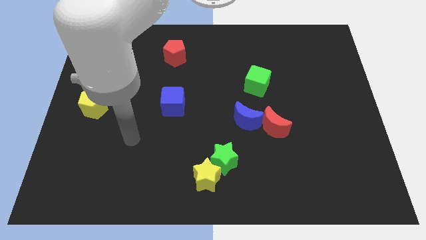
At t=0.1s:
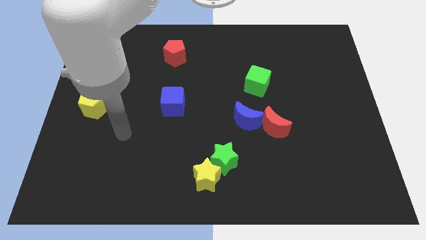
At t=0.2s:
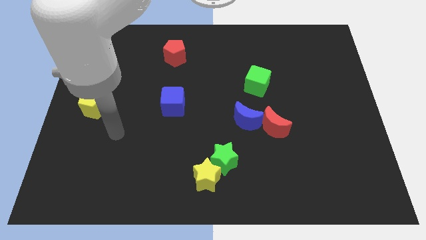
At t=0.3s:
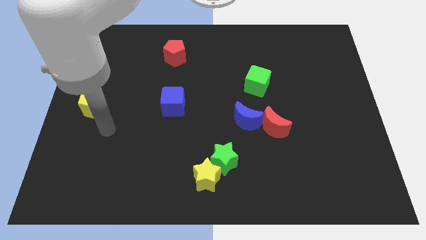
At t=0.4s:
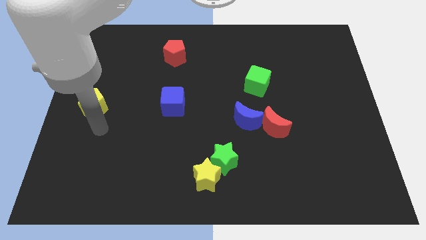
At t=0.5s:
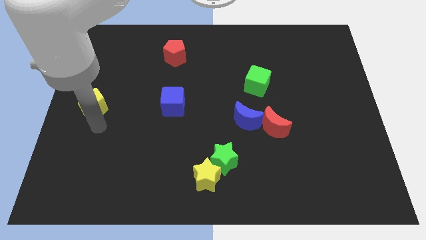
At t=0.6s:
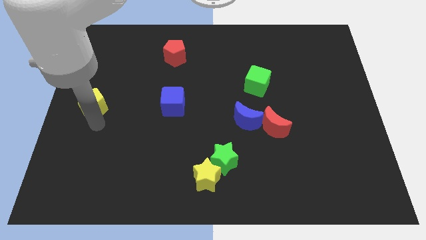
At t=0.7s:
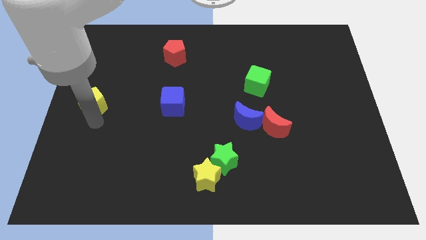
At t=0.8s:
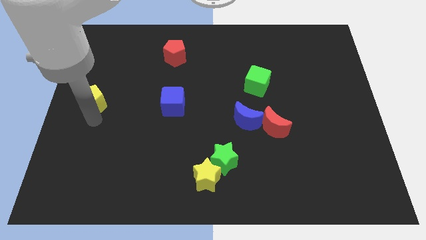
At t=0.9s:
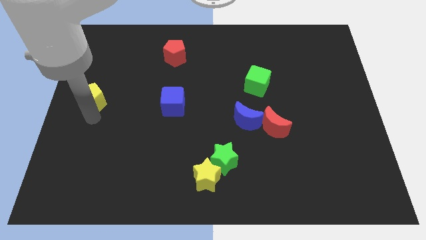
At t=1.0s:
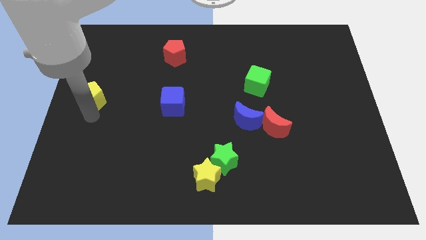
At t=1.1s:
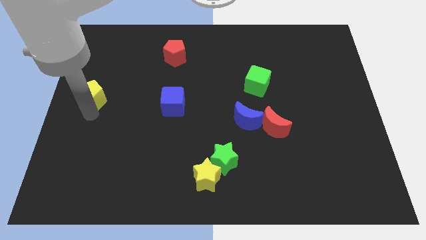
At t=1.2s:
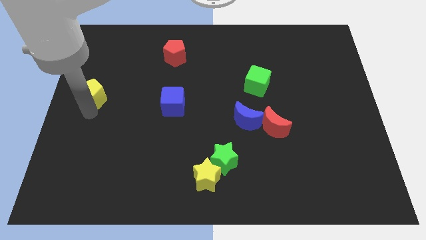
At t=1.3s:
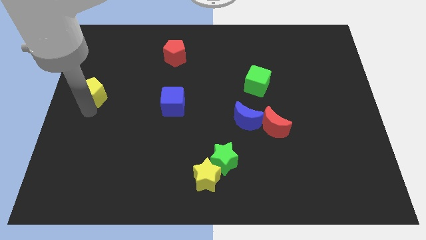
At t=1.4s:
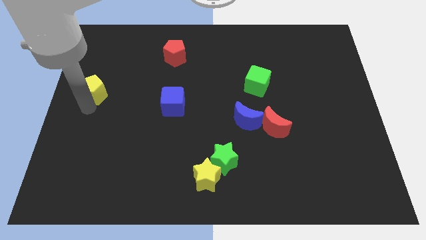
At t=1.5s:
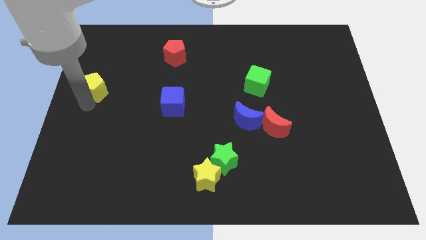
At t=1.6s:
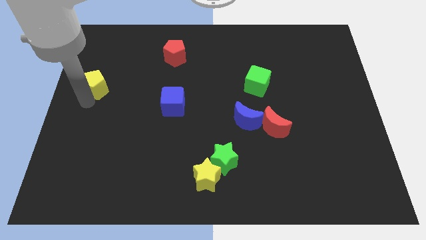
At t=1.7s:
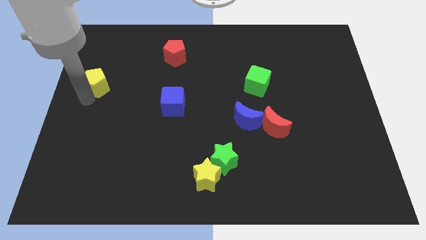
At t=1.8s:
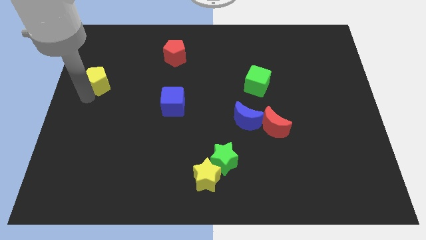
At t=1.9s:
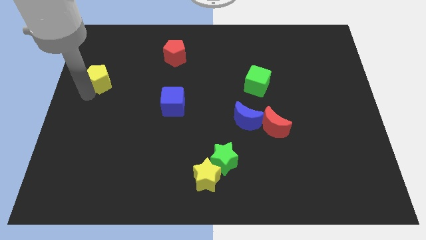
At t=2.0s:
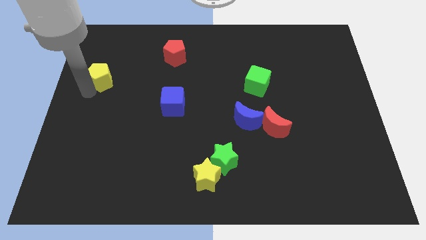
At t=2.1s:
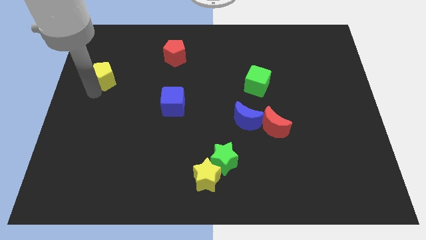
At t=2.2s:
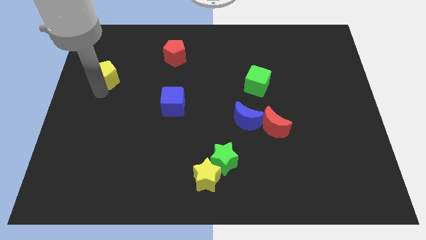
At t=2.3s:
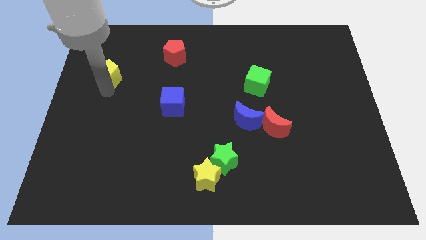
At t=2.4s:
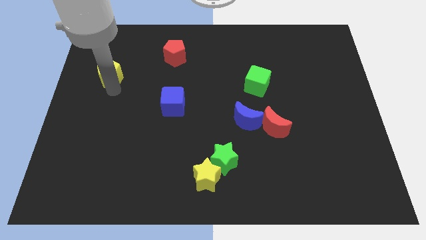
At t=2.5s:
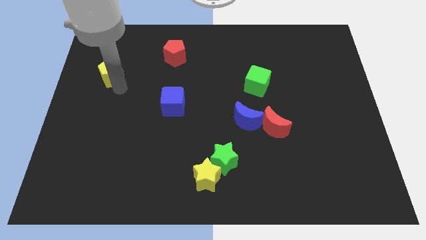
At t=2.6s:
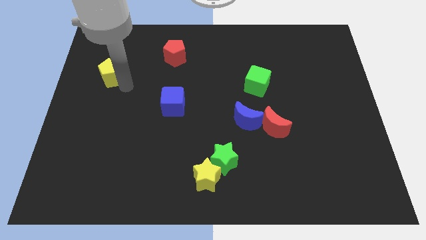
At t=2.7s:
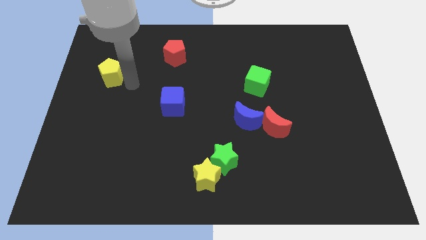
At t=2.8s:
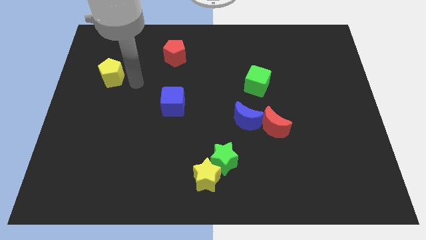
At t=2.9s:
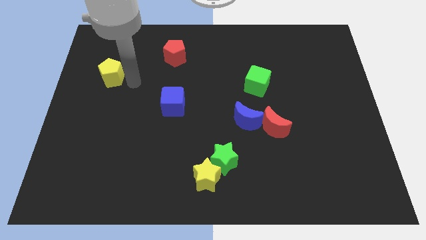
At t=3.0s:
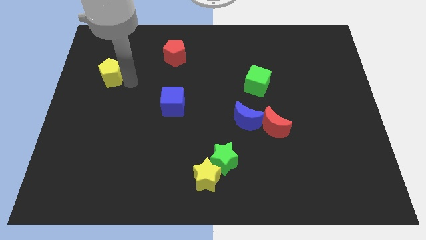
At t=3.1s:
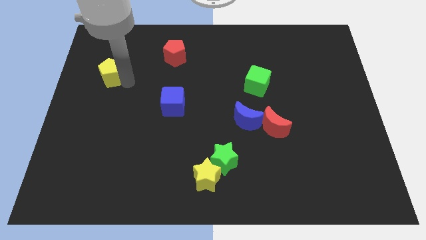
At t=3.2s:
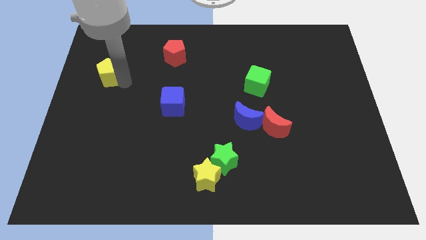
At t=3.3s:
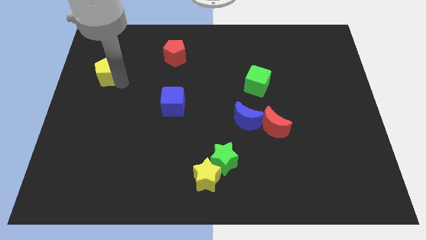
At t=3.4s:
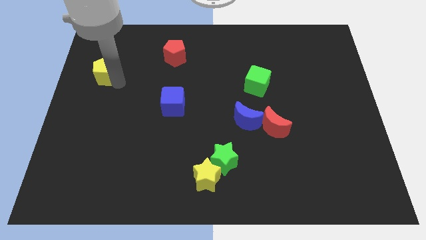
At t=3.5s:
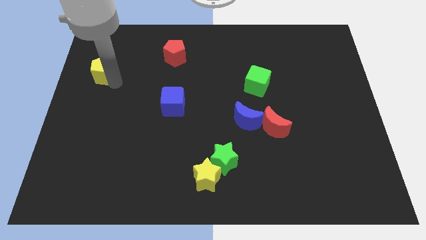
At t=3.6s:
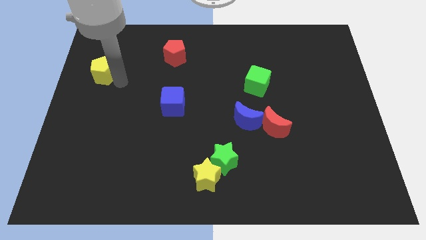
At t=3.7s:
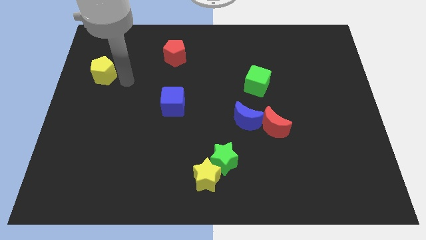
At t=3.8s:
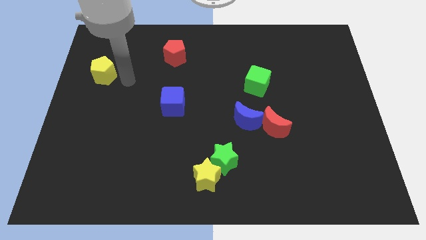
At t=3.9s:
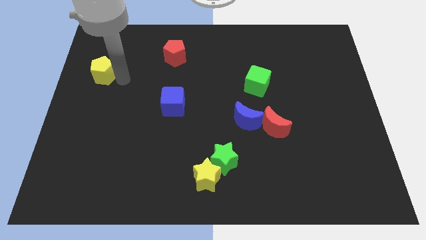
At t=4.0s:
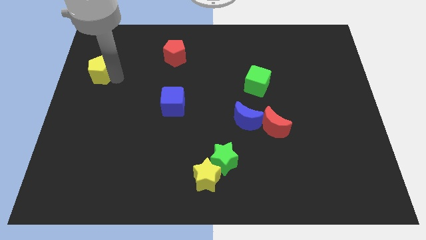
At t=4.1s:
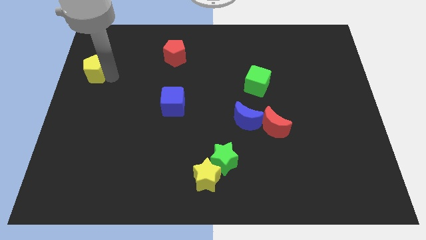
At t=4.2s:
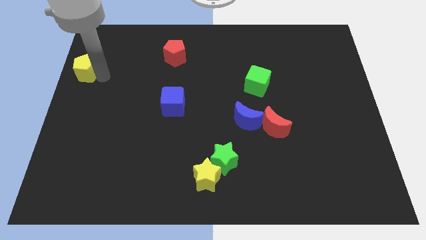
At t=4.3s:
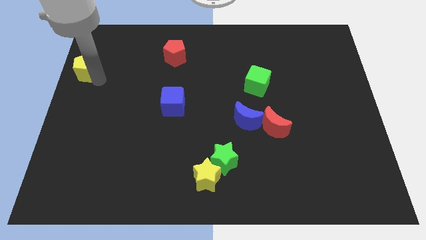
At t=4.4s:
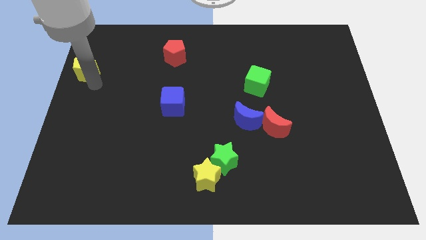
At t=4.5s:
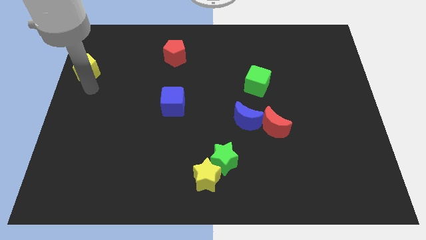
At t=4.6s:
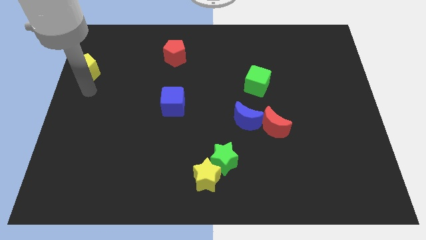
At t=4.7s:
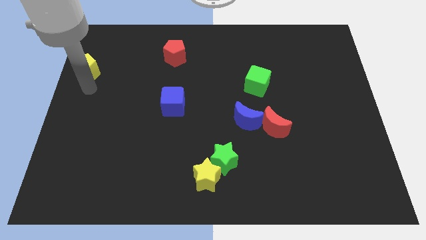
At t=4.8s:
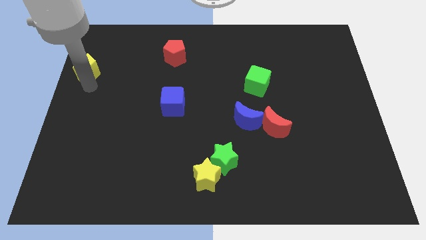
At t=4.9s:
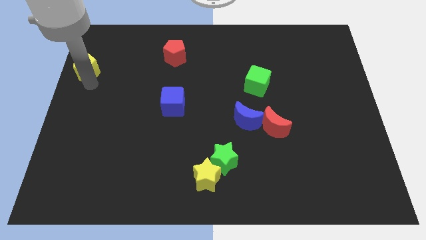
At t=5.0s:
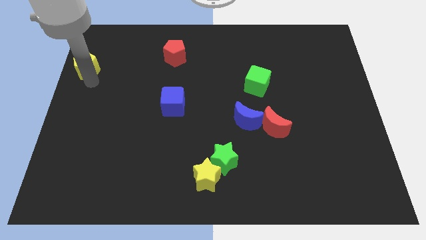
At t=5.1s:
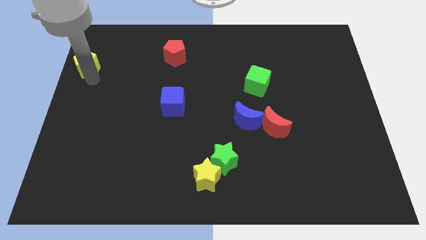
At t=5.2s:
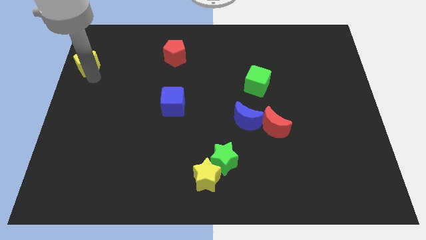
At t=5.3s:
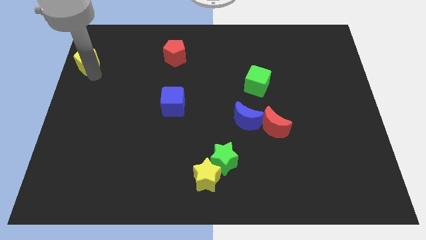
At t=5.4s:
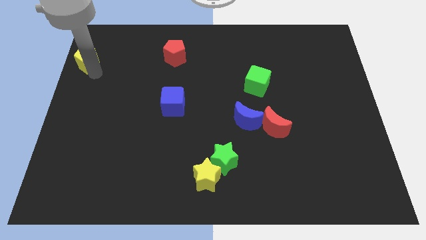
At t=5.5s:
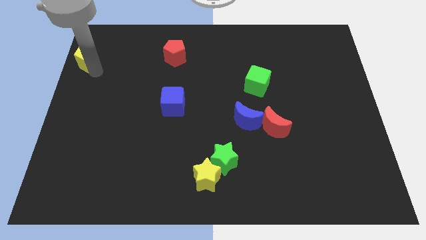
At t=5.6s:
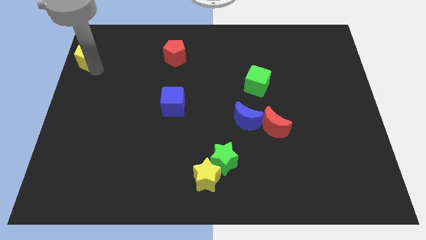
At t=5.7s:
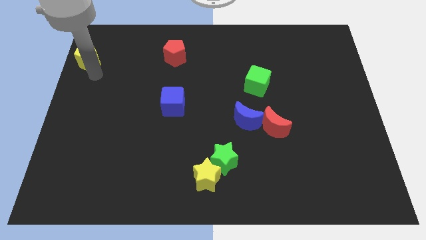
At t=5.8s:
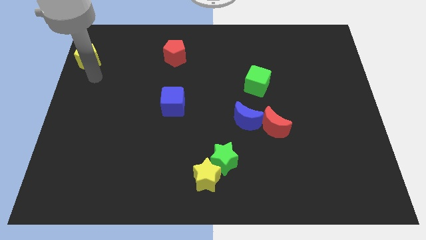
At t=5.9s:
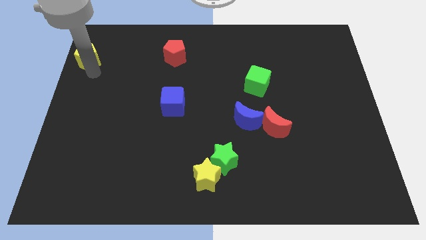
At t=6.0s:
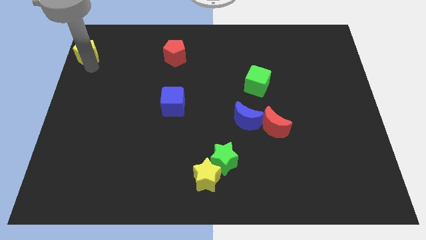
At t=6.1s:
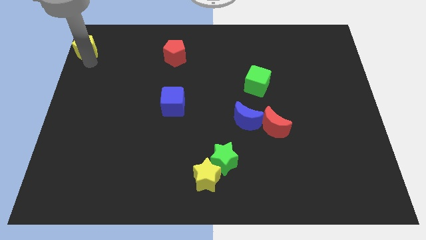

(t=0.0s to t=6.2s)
push the yellow pentagon to the top left of the board

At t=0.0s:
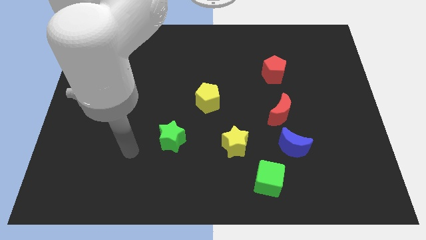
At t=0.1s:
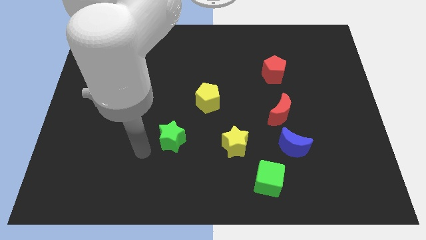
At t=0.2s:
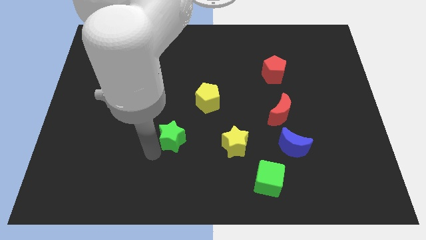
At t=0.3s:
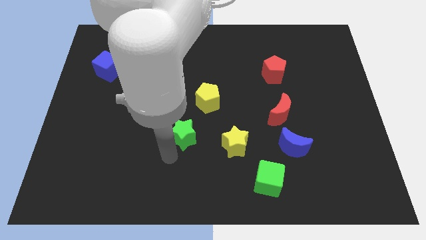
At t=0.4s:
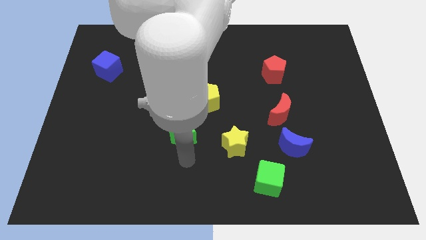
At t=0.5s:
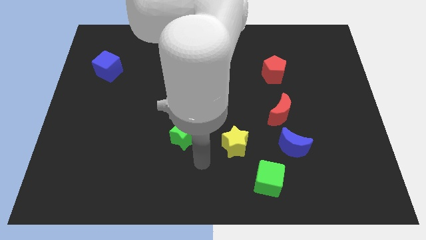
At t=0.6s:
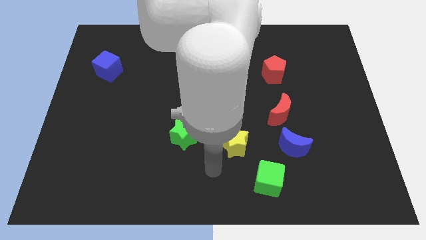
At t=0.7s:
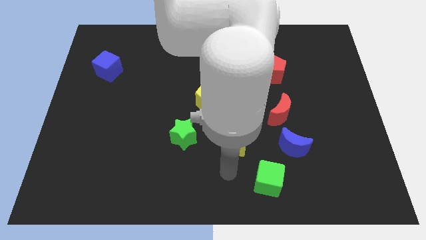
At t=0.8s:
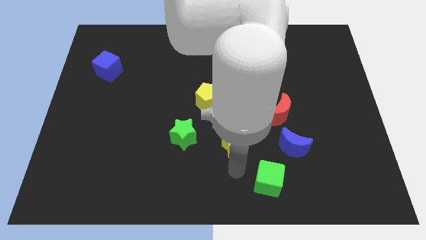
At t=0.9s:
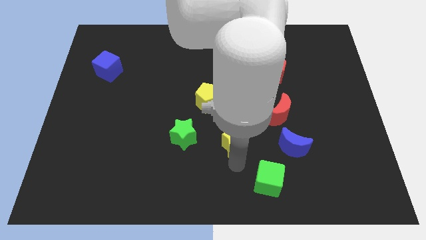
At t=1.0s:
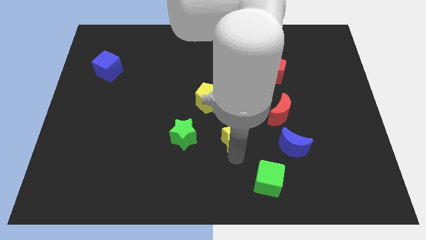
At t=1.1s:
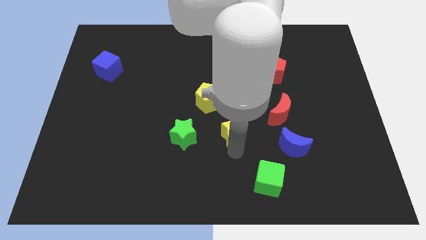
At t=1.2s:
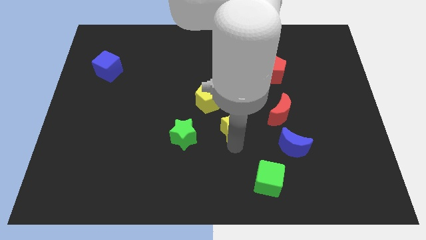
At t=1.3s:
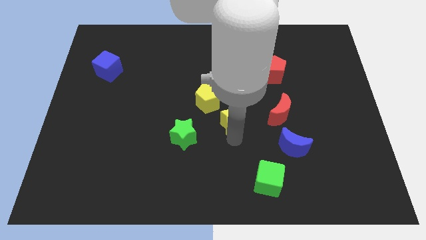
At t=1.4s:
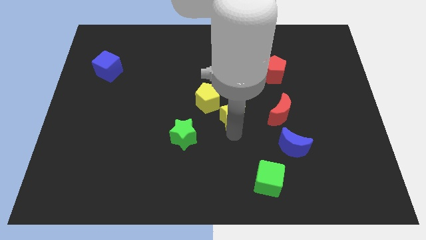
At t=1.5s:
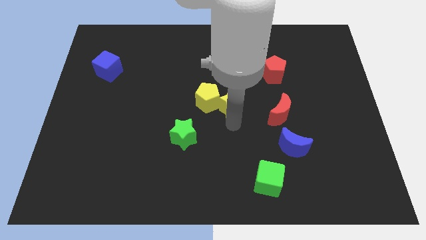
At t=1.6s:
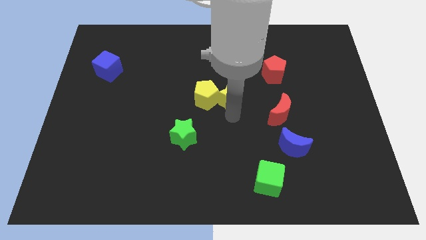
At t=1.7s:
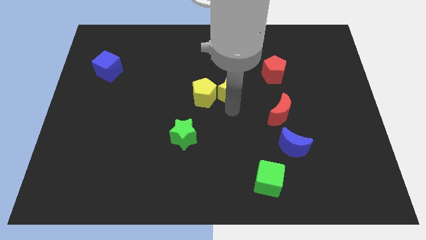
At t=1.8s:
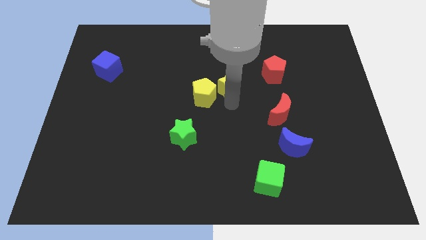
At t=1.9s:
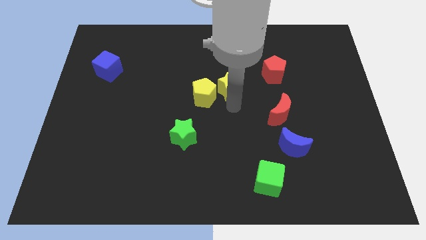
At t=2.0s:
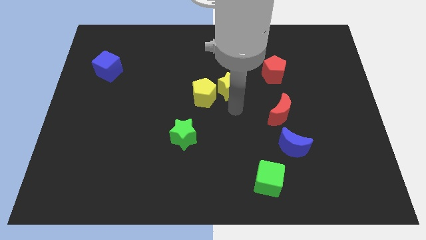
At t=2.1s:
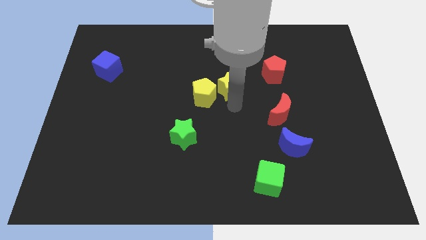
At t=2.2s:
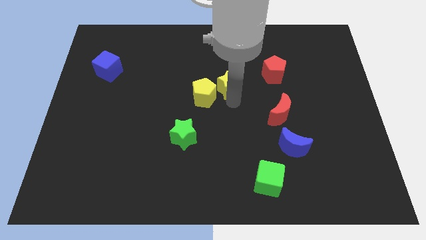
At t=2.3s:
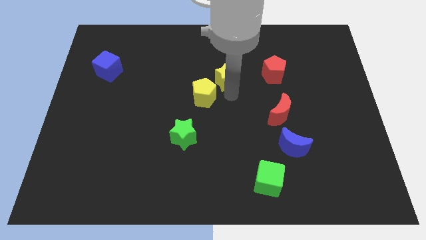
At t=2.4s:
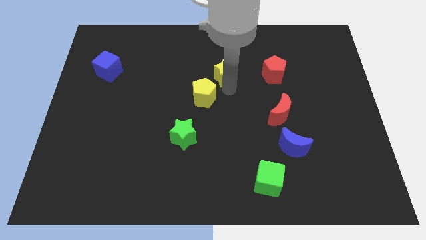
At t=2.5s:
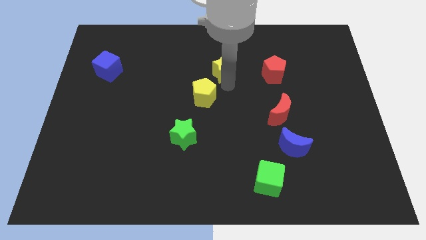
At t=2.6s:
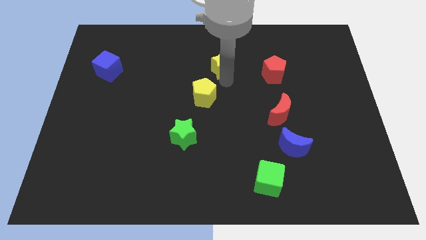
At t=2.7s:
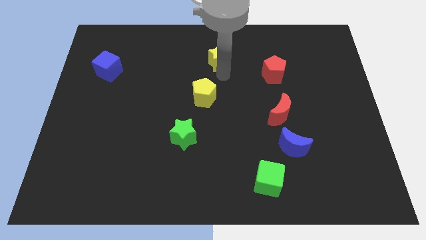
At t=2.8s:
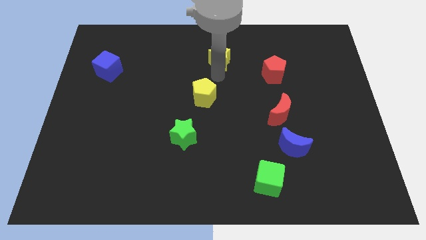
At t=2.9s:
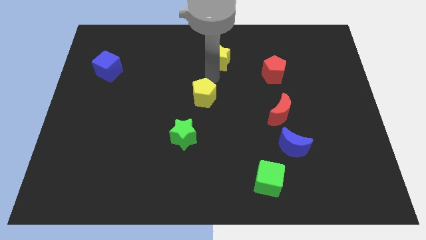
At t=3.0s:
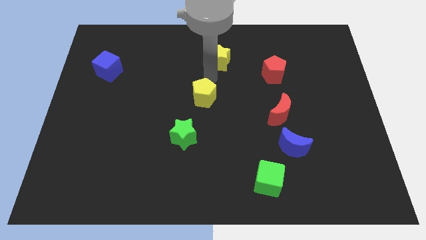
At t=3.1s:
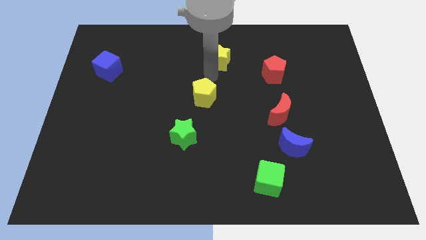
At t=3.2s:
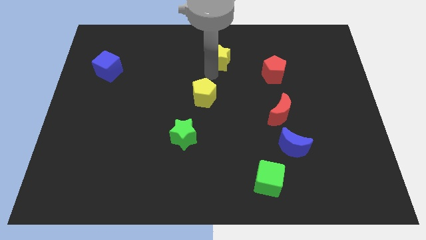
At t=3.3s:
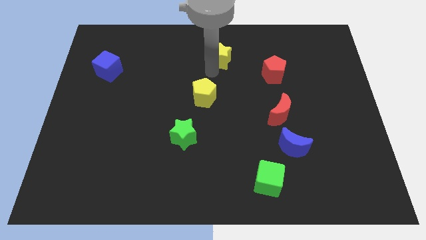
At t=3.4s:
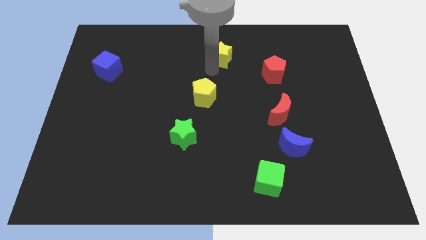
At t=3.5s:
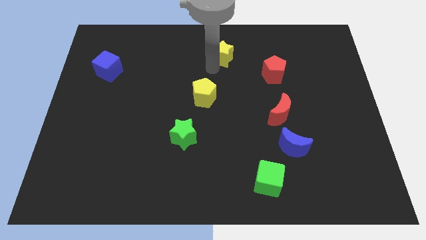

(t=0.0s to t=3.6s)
put the yellow star to the top side
